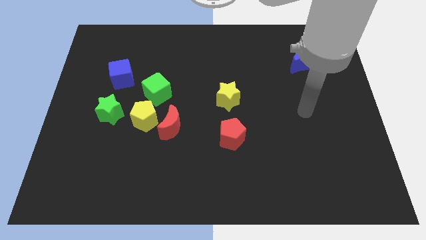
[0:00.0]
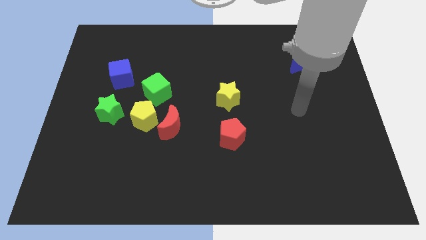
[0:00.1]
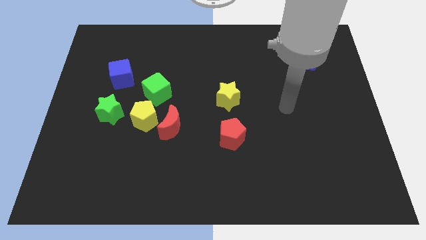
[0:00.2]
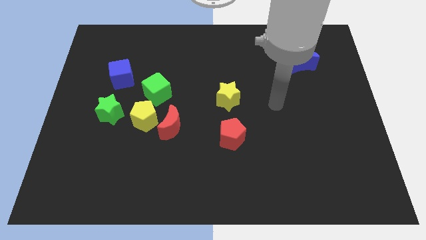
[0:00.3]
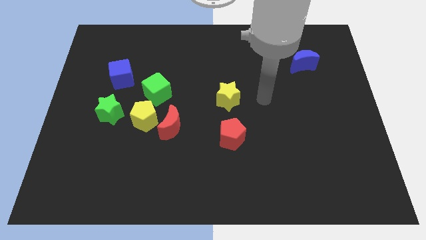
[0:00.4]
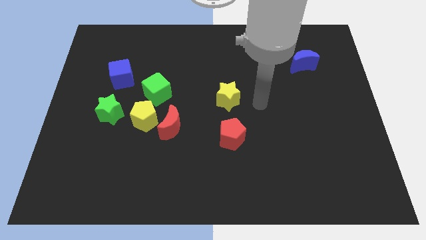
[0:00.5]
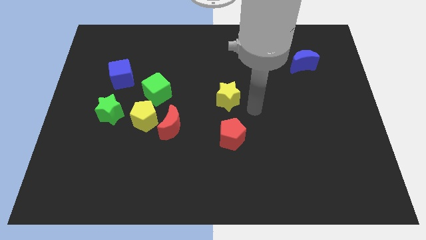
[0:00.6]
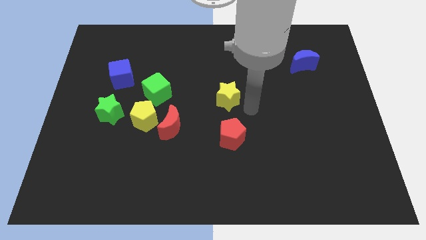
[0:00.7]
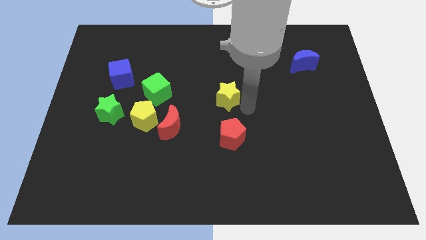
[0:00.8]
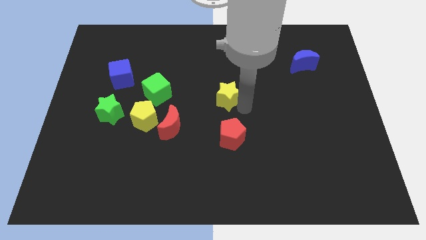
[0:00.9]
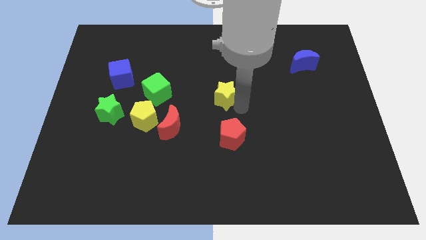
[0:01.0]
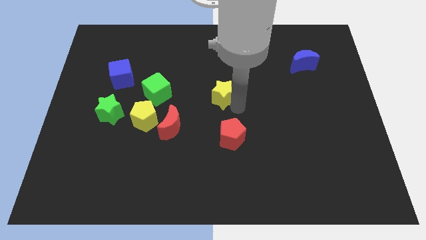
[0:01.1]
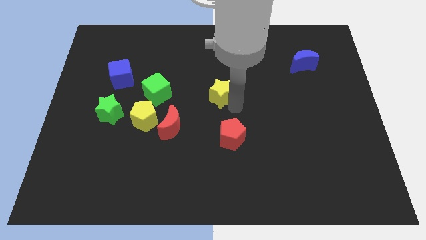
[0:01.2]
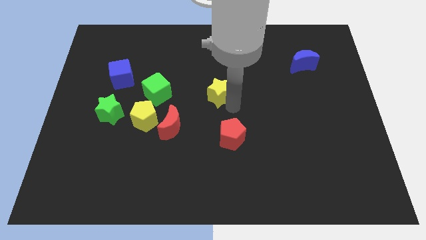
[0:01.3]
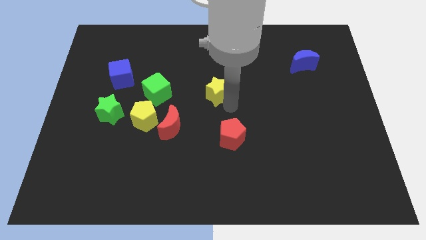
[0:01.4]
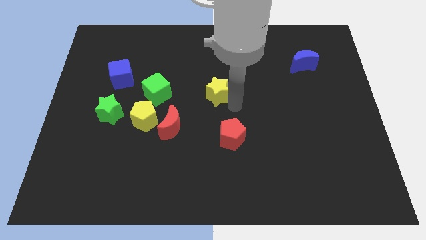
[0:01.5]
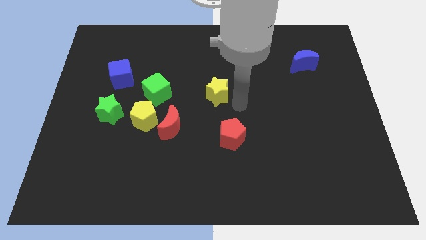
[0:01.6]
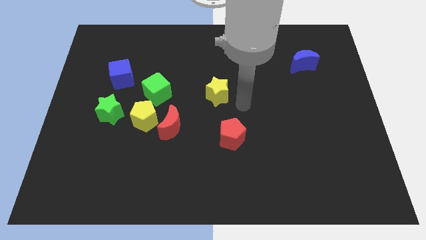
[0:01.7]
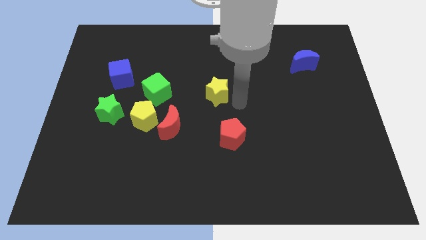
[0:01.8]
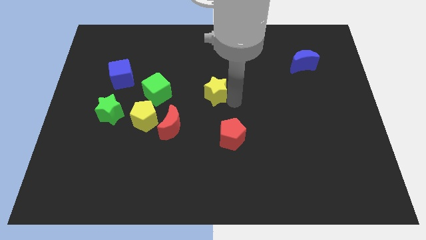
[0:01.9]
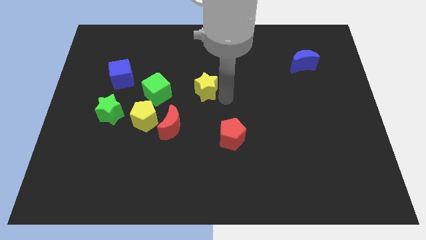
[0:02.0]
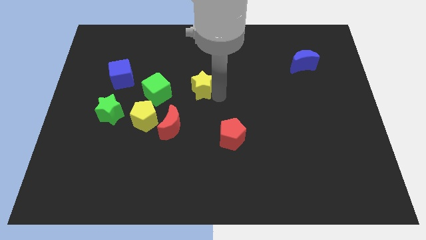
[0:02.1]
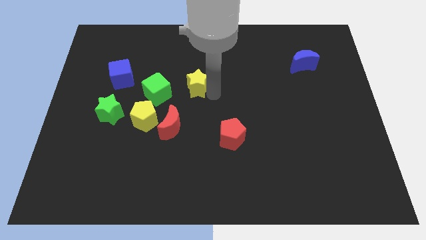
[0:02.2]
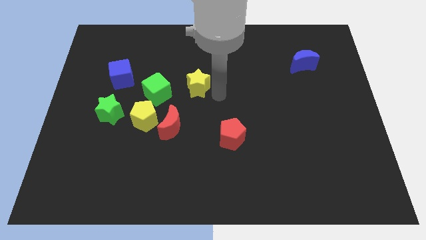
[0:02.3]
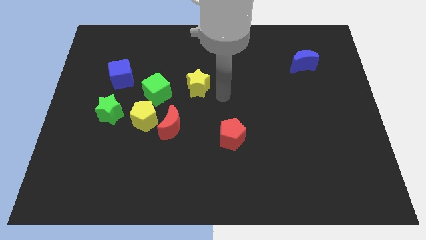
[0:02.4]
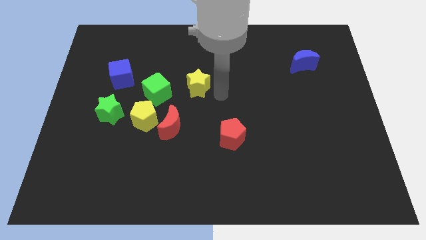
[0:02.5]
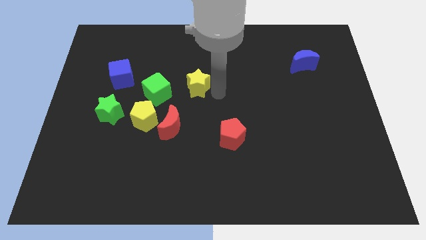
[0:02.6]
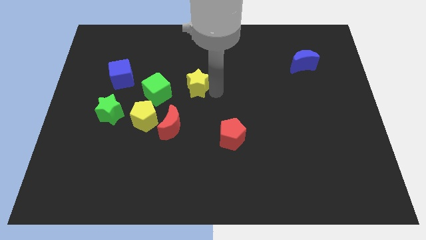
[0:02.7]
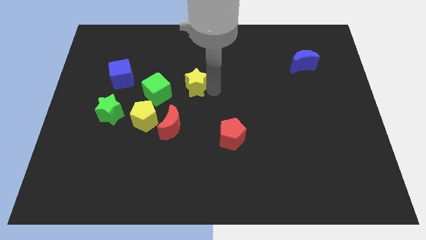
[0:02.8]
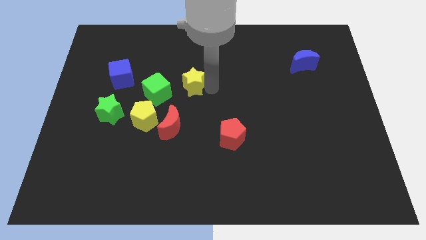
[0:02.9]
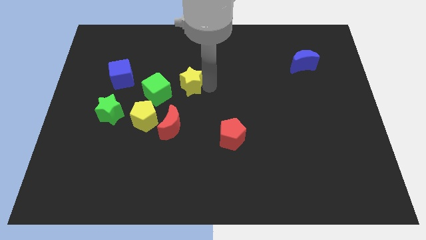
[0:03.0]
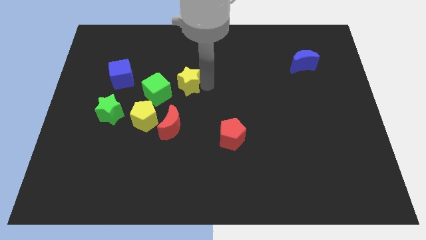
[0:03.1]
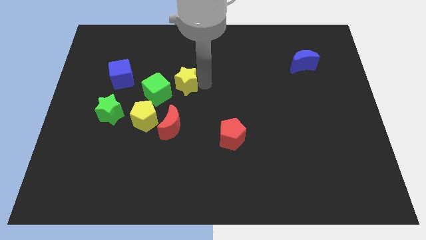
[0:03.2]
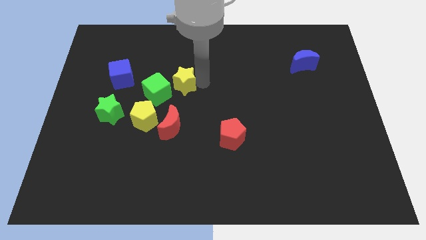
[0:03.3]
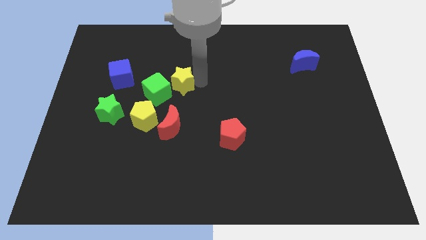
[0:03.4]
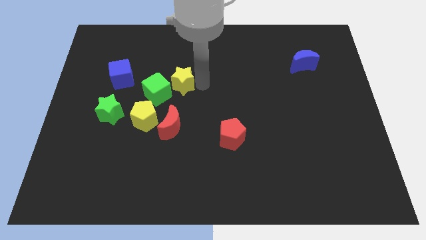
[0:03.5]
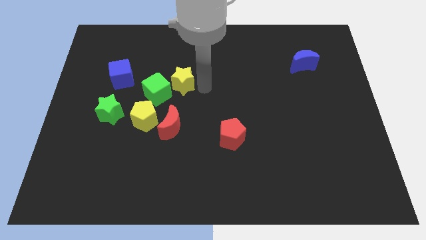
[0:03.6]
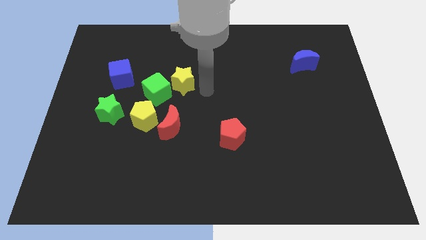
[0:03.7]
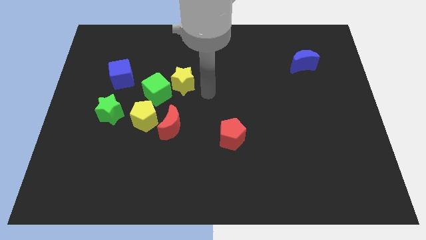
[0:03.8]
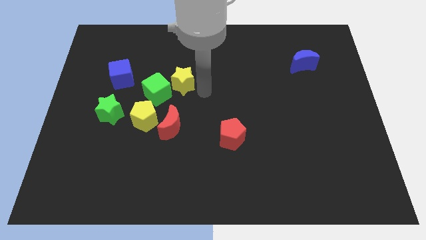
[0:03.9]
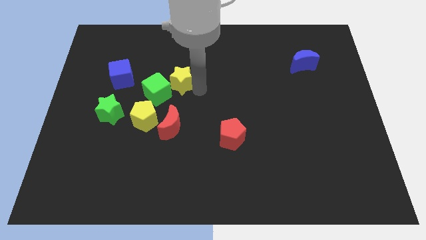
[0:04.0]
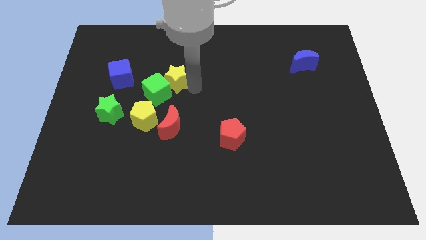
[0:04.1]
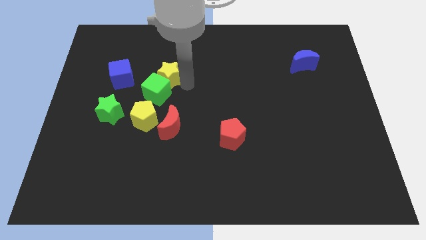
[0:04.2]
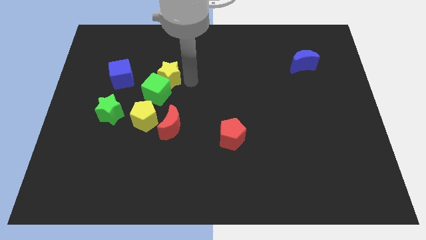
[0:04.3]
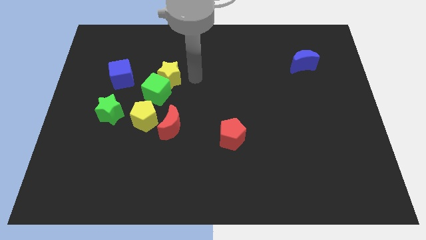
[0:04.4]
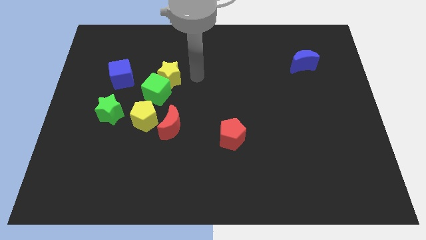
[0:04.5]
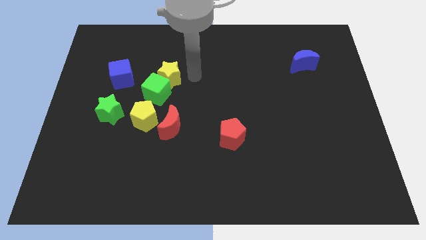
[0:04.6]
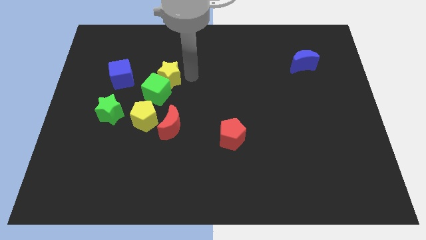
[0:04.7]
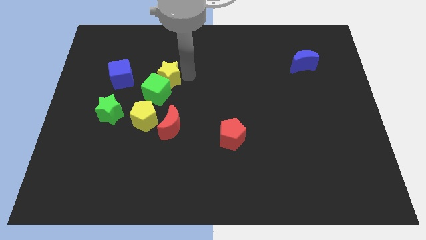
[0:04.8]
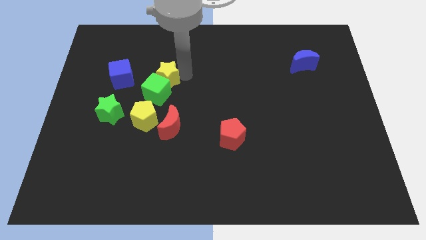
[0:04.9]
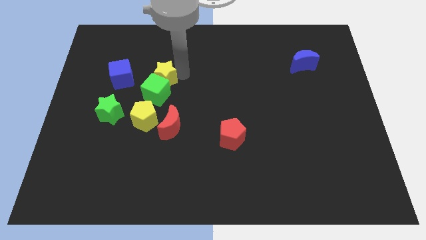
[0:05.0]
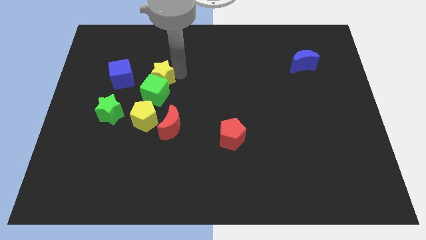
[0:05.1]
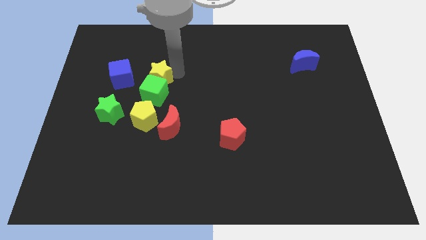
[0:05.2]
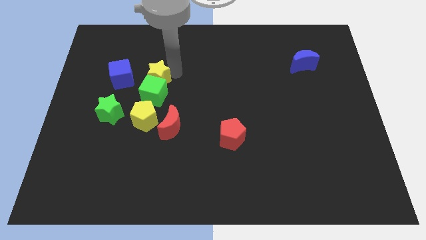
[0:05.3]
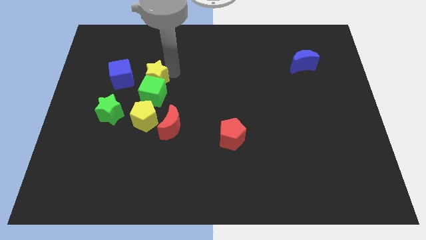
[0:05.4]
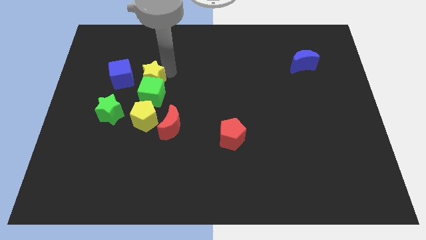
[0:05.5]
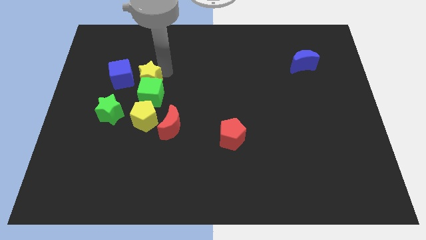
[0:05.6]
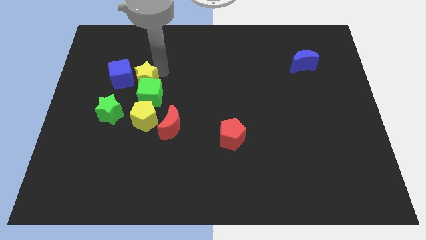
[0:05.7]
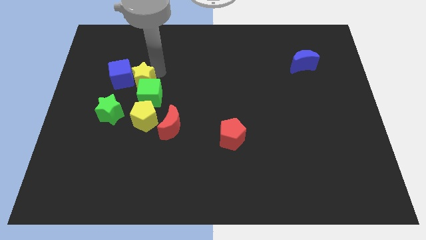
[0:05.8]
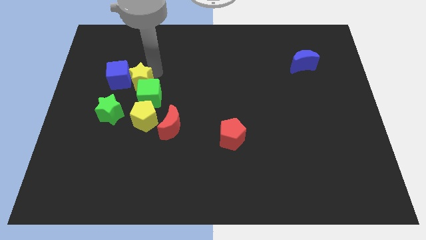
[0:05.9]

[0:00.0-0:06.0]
move the yellow star to the left

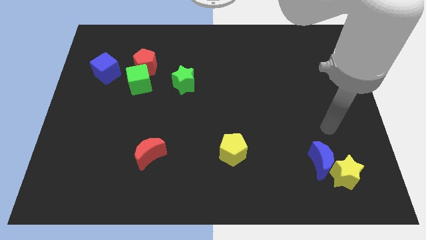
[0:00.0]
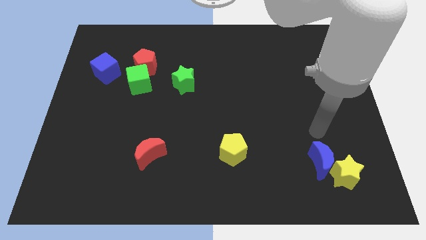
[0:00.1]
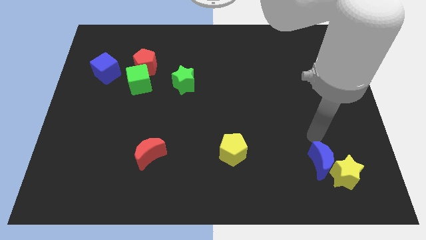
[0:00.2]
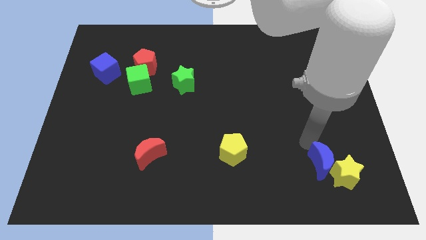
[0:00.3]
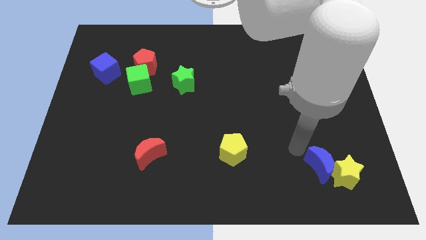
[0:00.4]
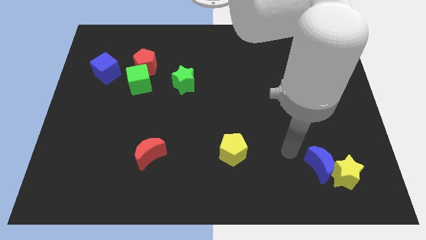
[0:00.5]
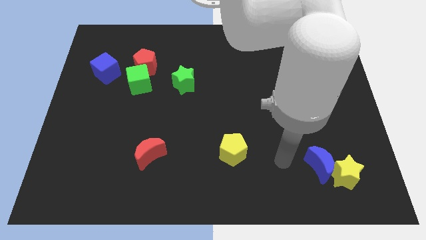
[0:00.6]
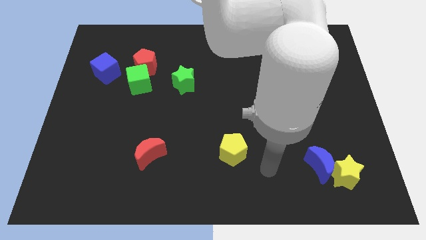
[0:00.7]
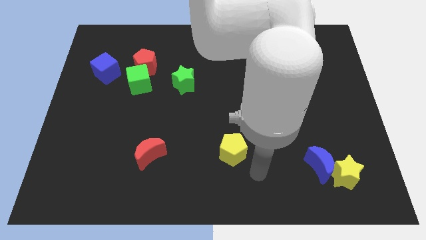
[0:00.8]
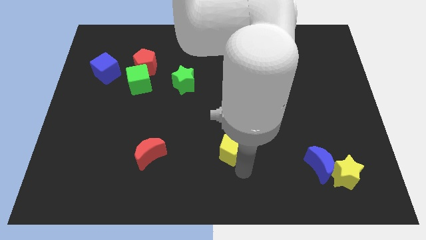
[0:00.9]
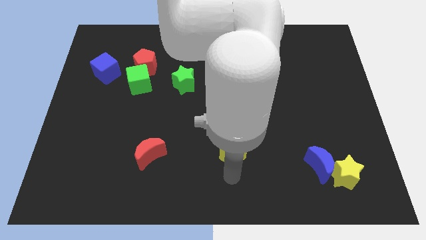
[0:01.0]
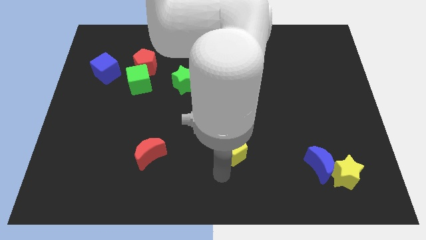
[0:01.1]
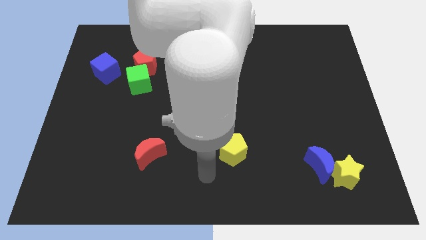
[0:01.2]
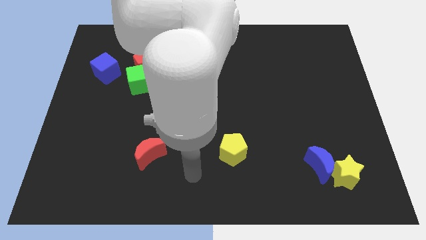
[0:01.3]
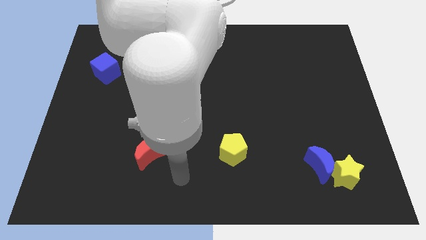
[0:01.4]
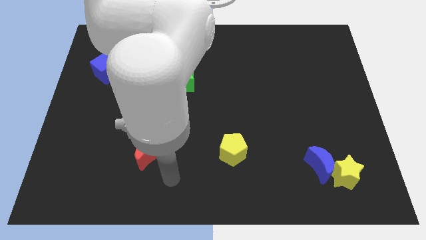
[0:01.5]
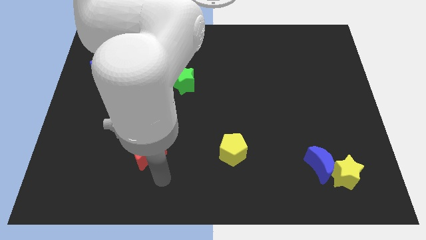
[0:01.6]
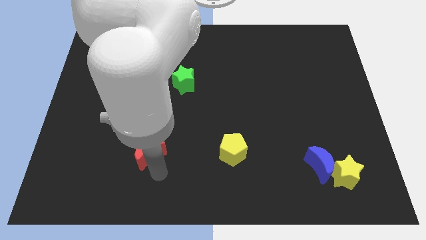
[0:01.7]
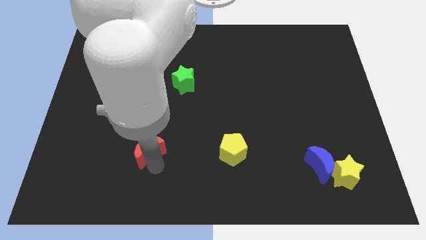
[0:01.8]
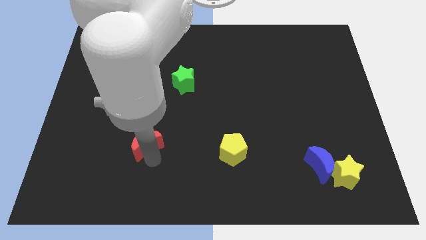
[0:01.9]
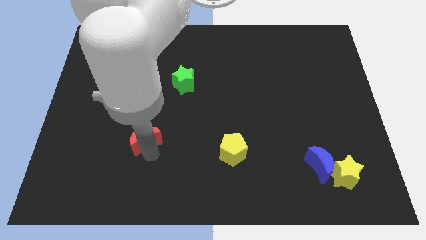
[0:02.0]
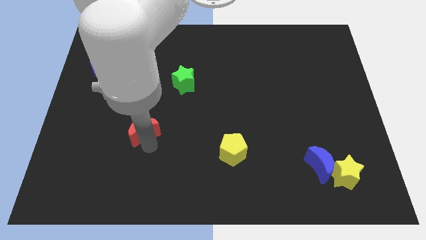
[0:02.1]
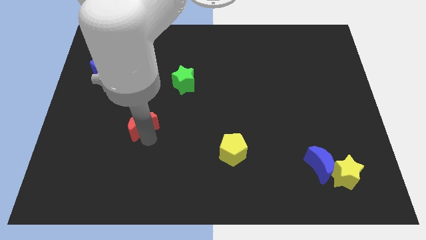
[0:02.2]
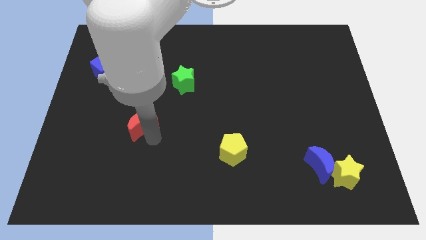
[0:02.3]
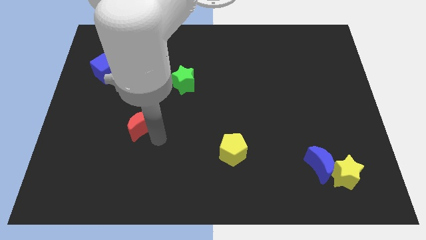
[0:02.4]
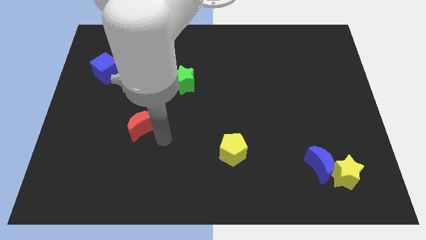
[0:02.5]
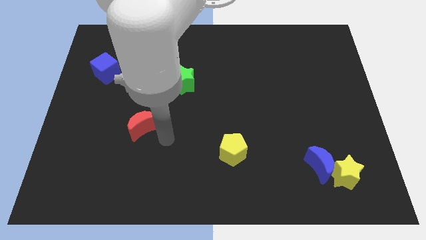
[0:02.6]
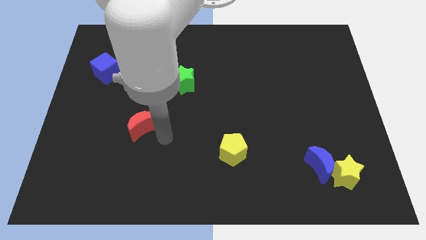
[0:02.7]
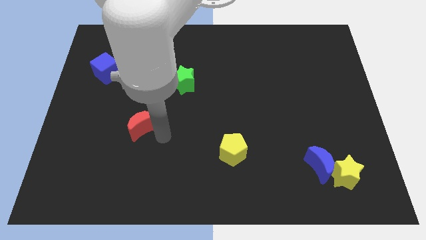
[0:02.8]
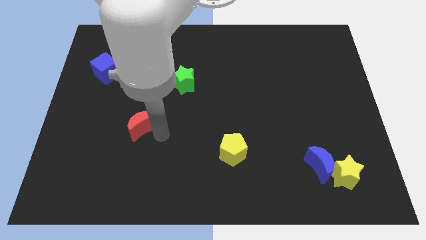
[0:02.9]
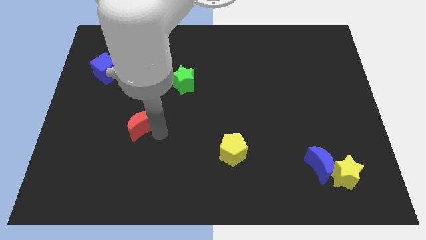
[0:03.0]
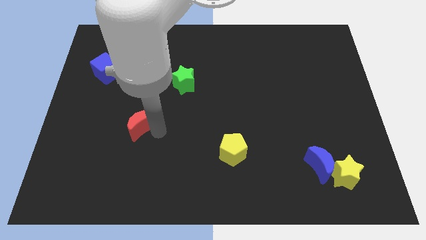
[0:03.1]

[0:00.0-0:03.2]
move the red moon somewhat up and then left
